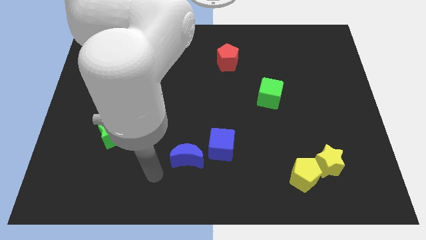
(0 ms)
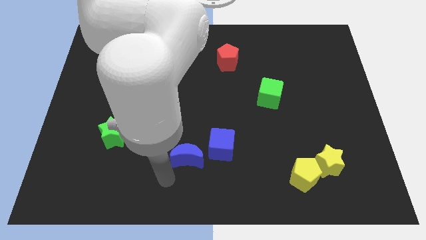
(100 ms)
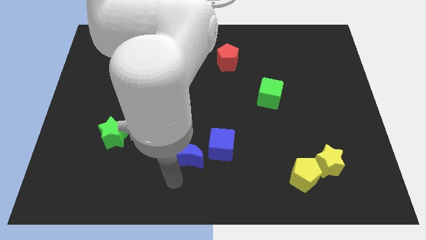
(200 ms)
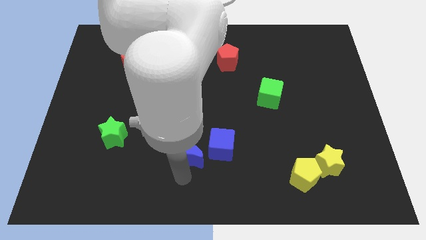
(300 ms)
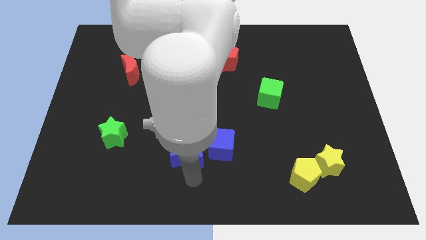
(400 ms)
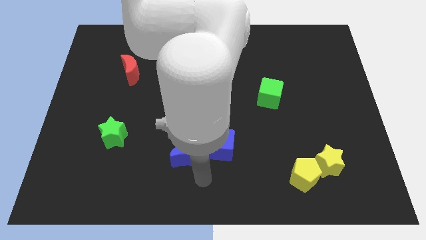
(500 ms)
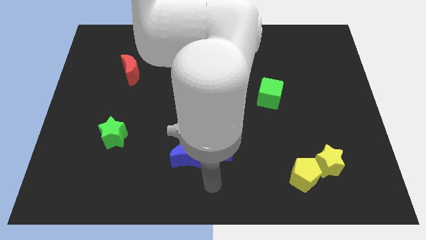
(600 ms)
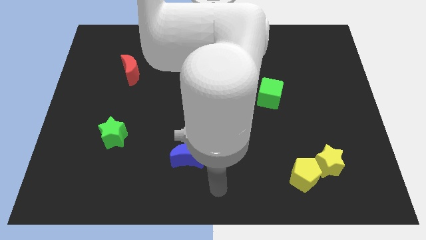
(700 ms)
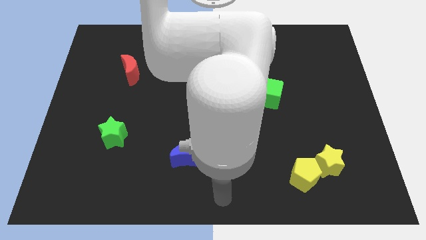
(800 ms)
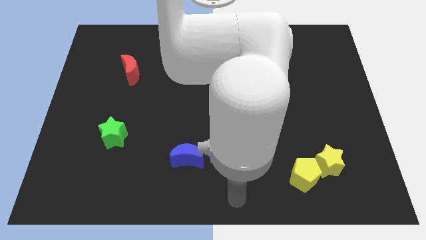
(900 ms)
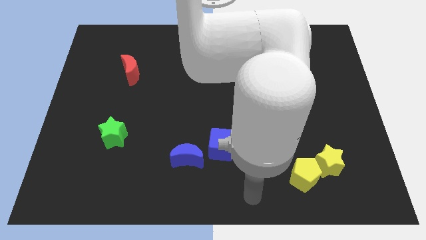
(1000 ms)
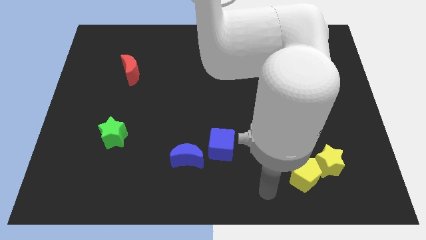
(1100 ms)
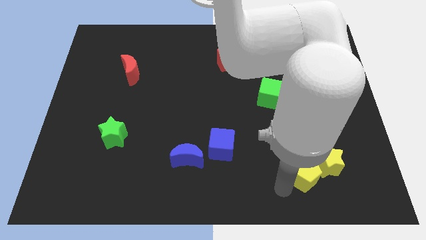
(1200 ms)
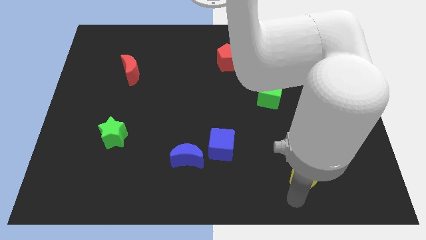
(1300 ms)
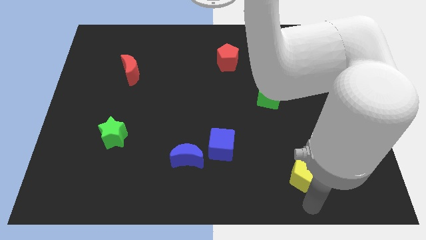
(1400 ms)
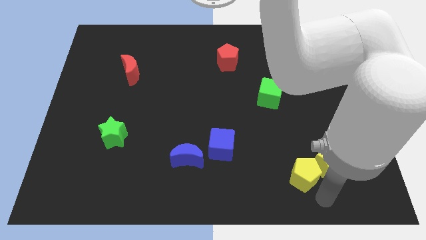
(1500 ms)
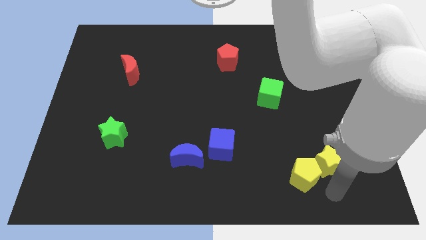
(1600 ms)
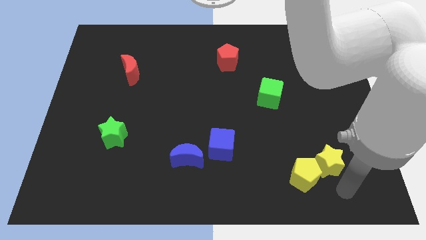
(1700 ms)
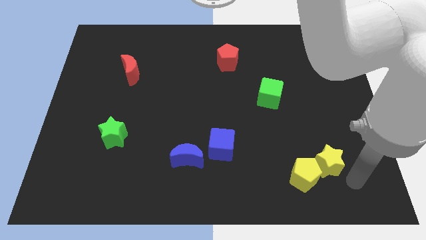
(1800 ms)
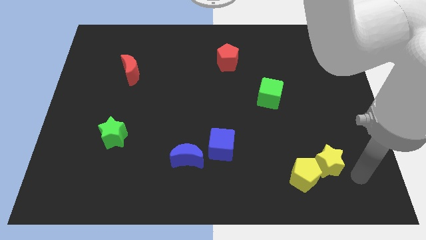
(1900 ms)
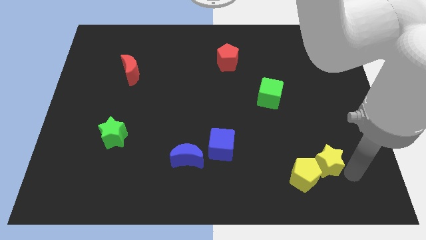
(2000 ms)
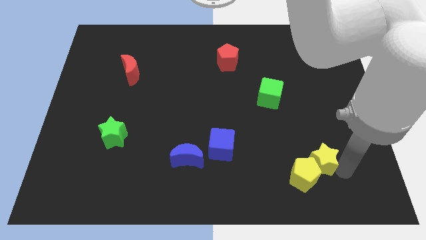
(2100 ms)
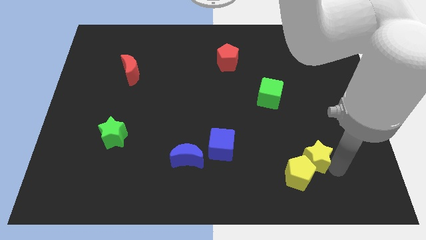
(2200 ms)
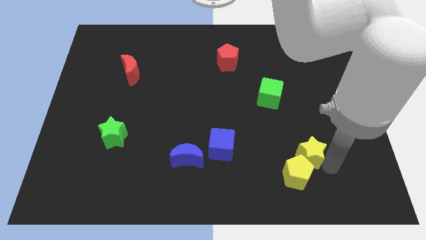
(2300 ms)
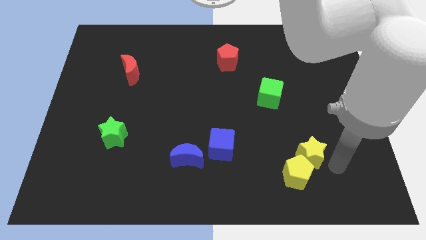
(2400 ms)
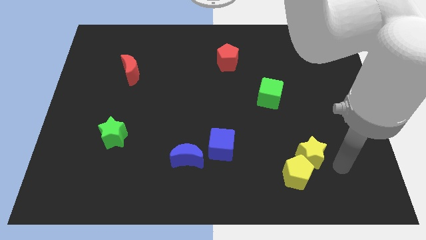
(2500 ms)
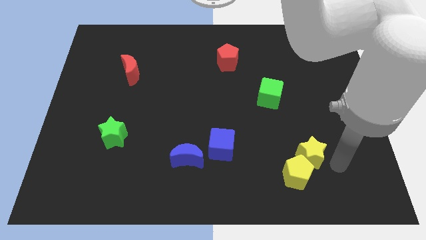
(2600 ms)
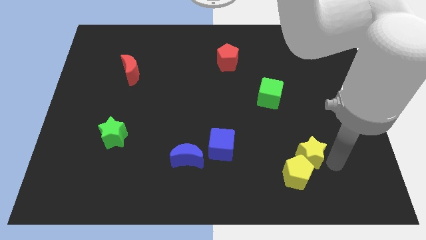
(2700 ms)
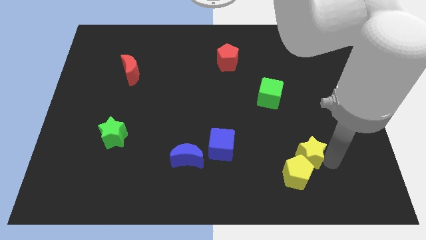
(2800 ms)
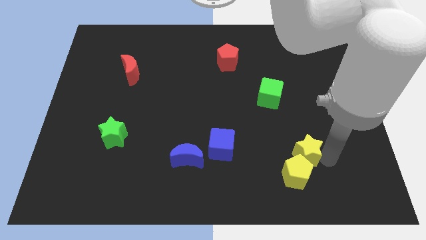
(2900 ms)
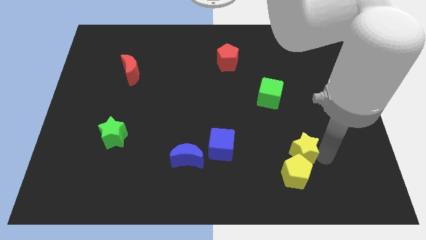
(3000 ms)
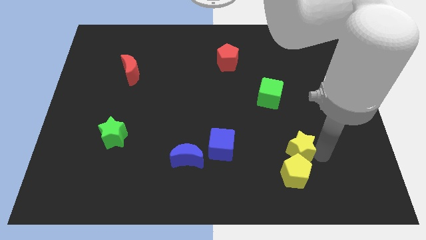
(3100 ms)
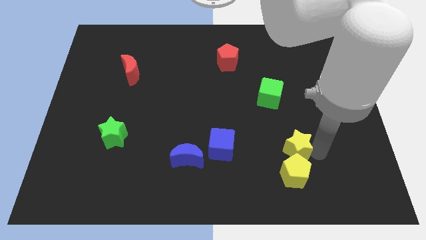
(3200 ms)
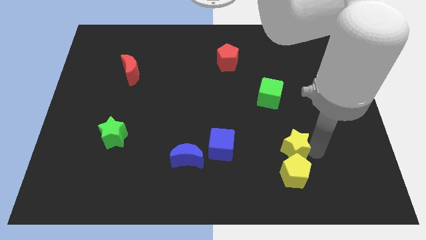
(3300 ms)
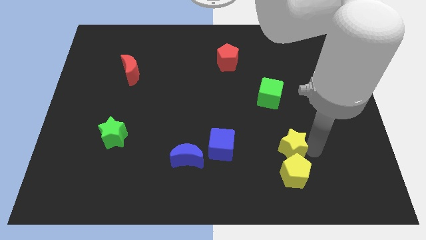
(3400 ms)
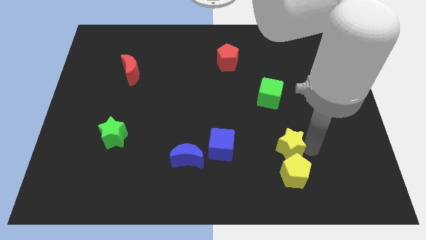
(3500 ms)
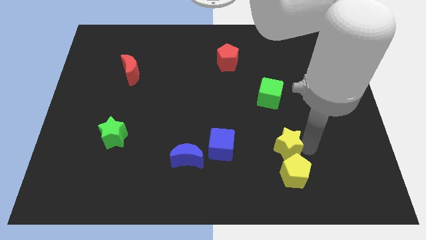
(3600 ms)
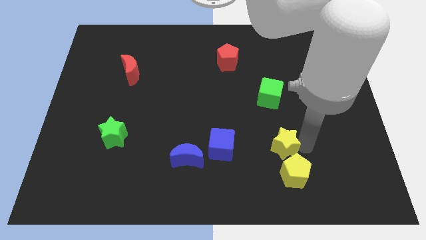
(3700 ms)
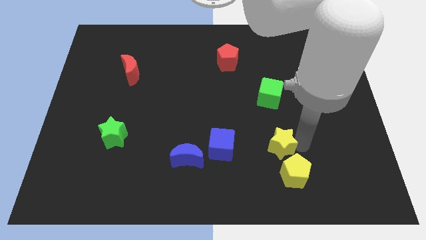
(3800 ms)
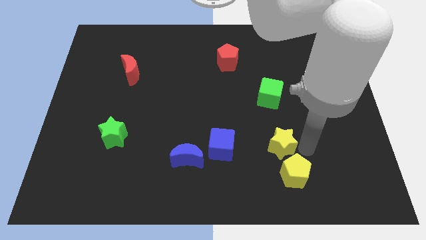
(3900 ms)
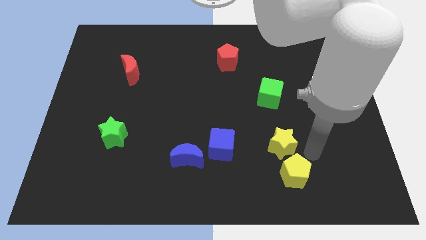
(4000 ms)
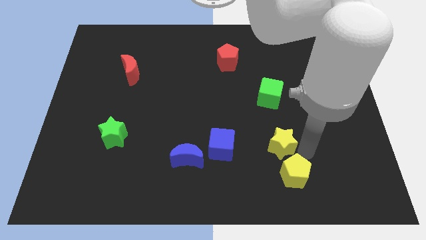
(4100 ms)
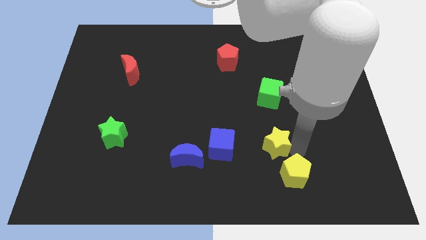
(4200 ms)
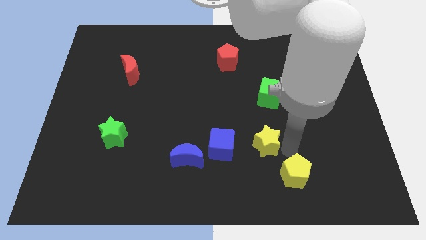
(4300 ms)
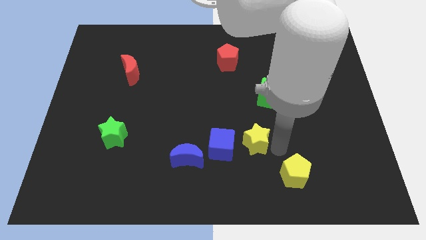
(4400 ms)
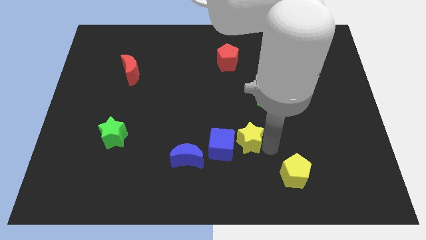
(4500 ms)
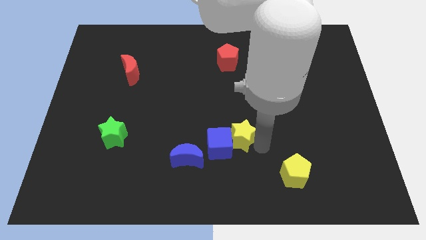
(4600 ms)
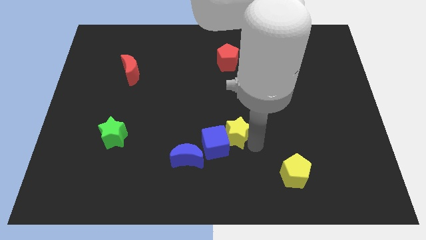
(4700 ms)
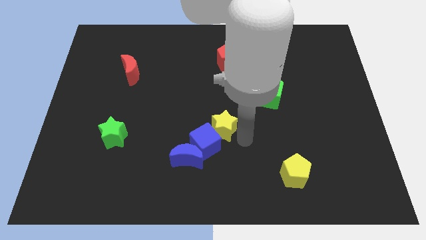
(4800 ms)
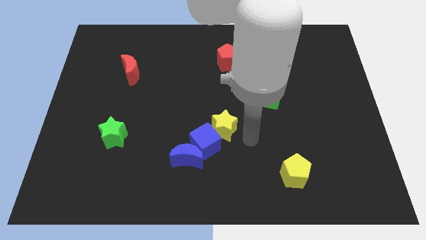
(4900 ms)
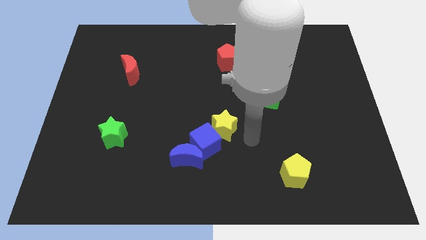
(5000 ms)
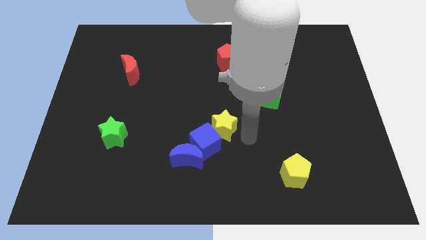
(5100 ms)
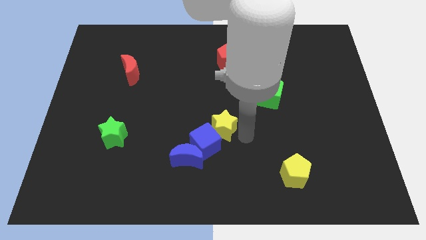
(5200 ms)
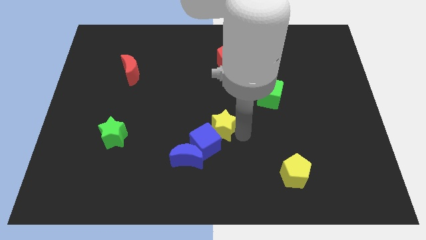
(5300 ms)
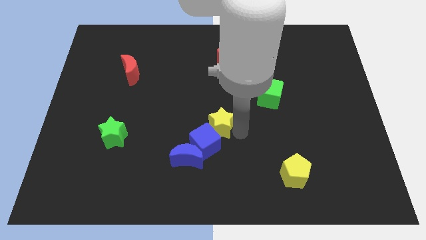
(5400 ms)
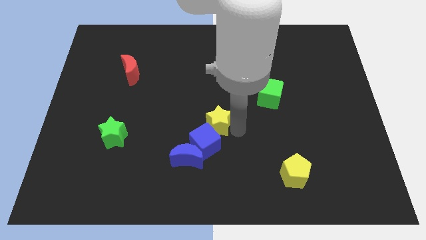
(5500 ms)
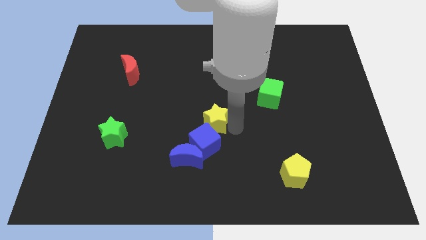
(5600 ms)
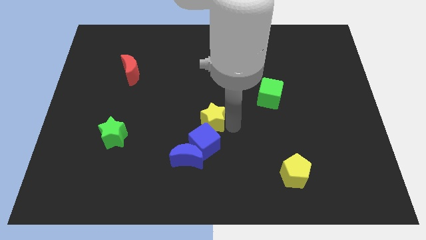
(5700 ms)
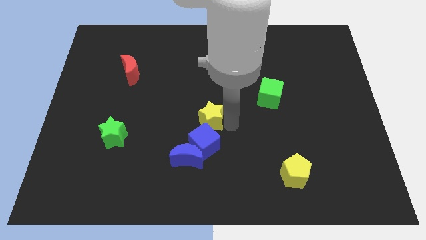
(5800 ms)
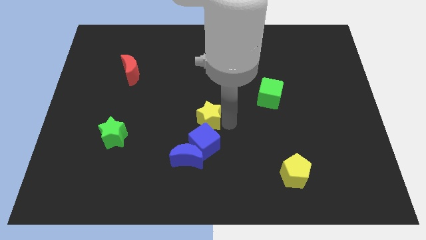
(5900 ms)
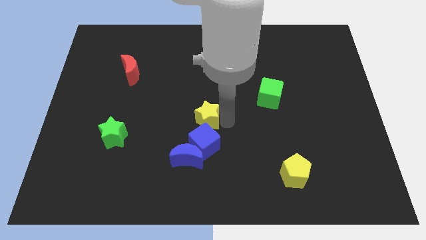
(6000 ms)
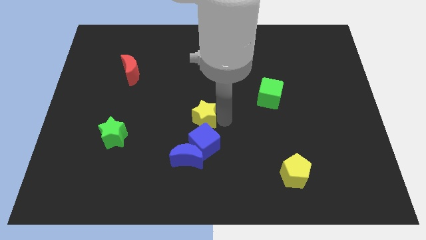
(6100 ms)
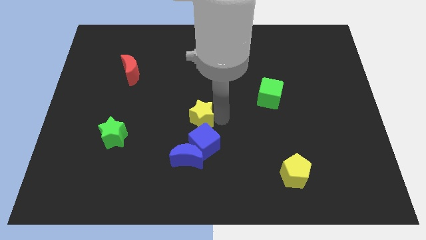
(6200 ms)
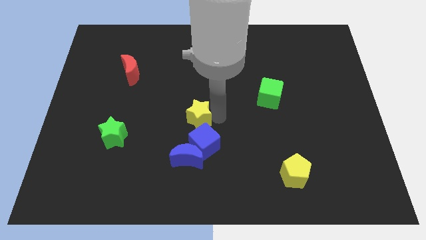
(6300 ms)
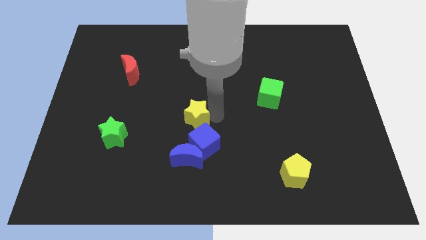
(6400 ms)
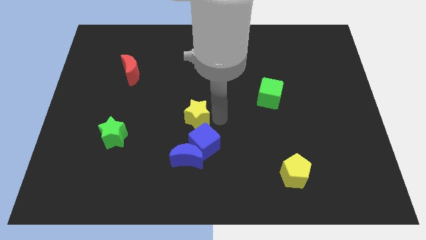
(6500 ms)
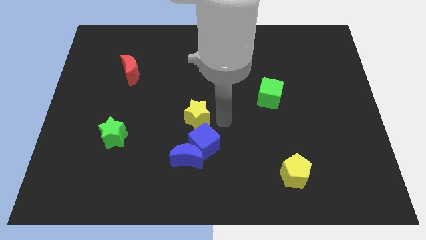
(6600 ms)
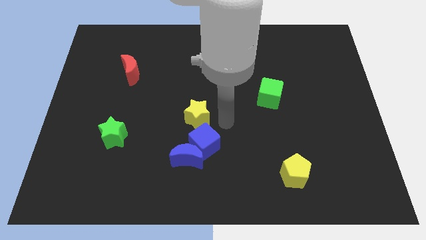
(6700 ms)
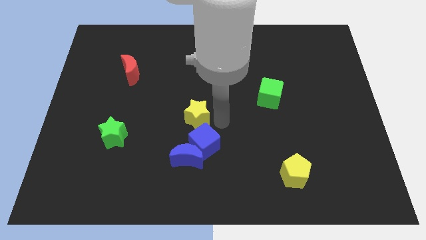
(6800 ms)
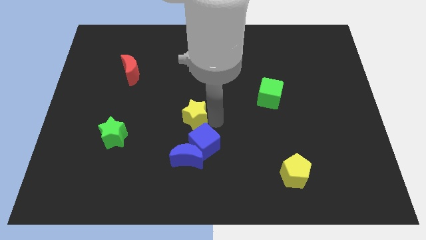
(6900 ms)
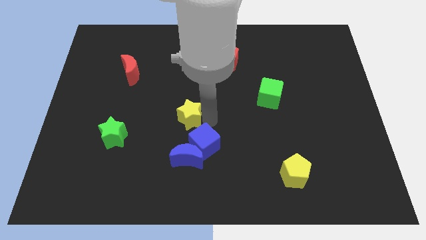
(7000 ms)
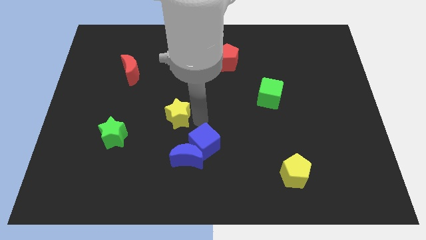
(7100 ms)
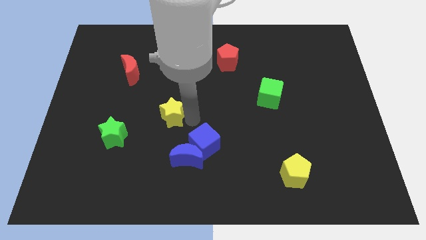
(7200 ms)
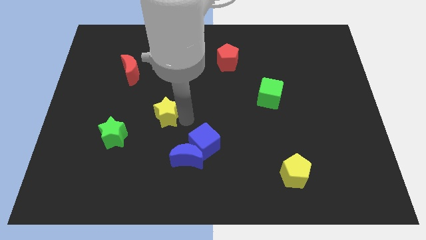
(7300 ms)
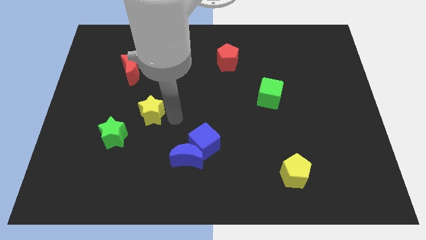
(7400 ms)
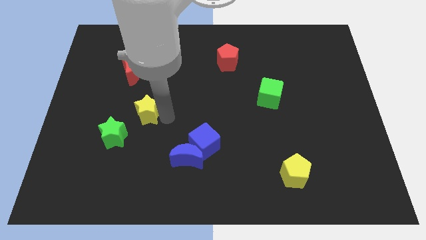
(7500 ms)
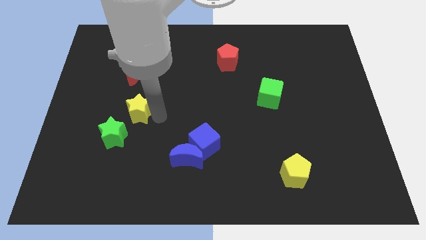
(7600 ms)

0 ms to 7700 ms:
slide the yellow star to the bottom side of the red moon
